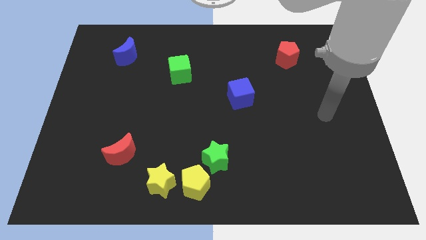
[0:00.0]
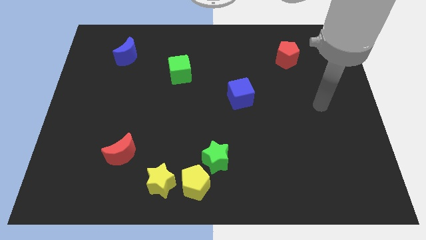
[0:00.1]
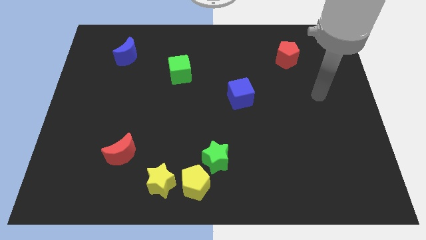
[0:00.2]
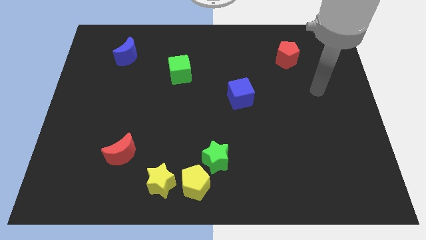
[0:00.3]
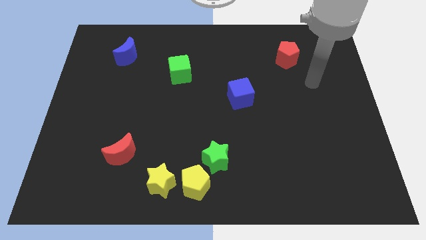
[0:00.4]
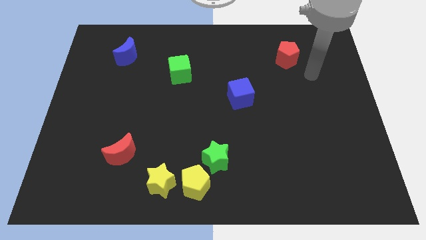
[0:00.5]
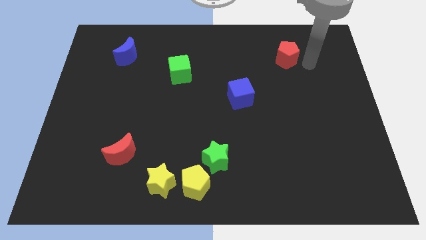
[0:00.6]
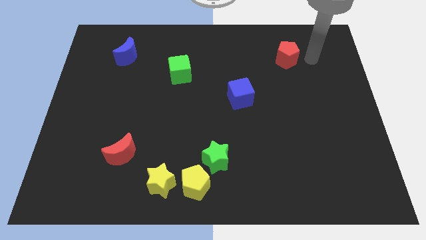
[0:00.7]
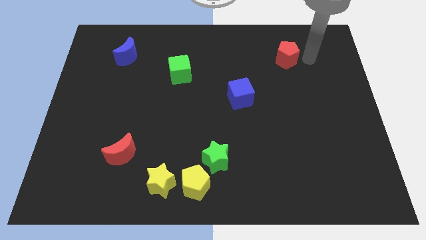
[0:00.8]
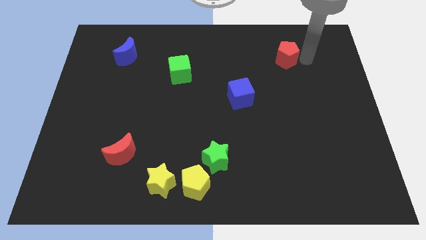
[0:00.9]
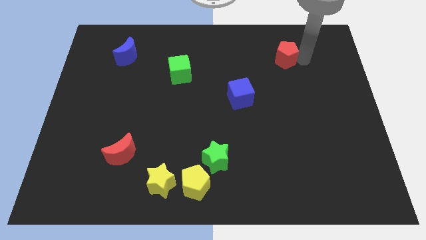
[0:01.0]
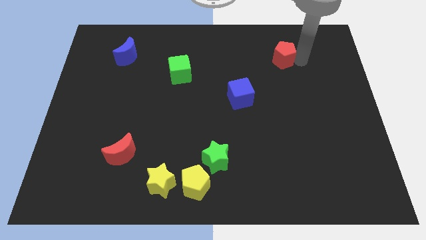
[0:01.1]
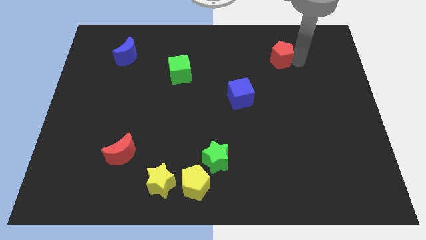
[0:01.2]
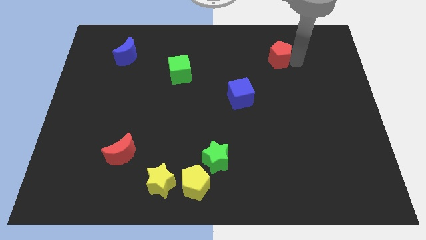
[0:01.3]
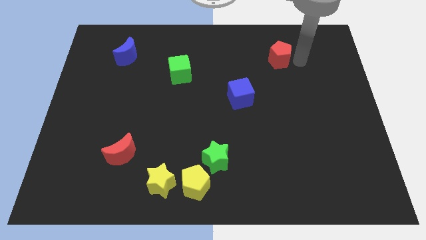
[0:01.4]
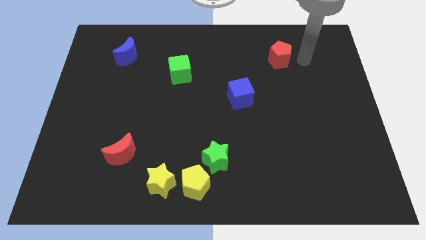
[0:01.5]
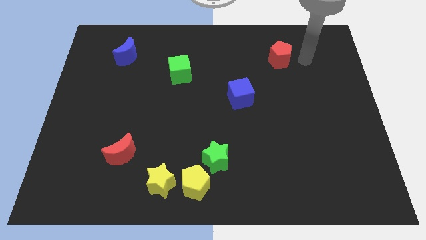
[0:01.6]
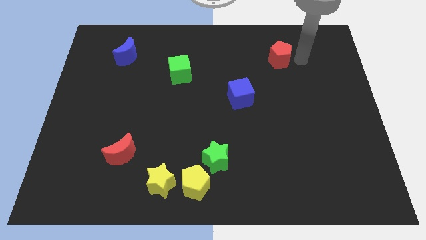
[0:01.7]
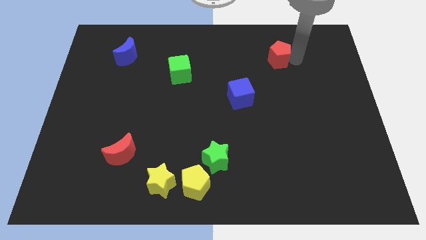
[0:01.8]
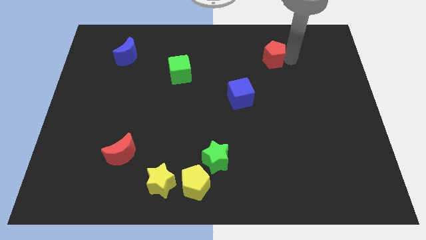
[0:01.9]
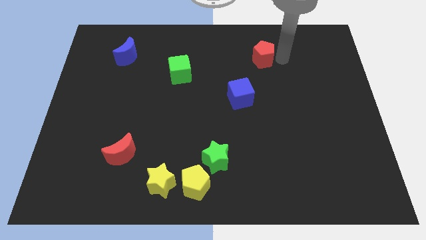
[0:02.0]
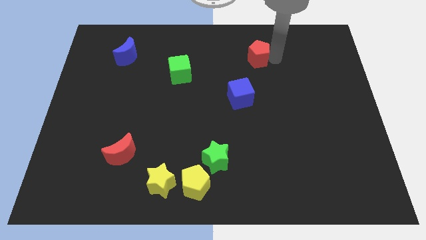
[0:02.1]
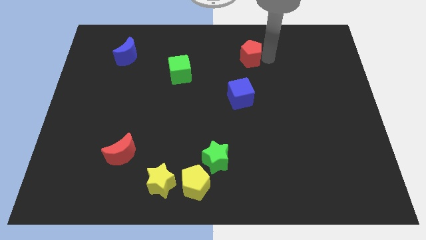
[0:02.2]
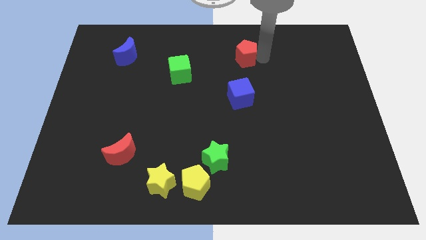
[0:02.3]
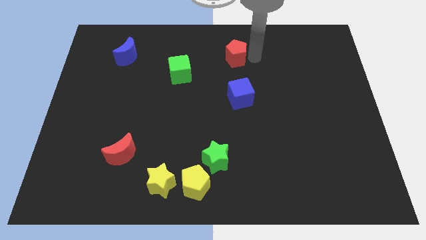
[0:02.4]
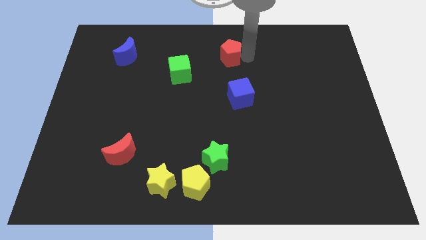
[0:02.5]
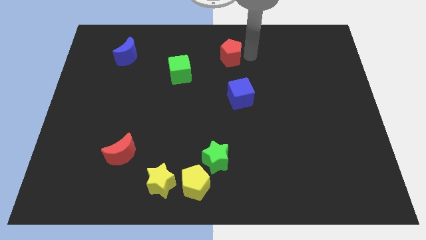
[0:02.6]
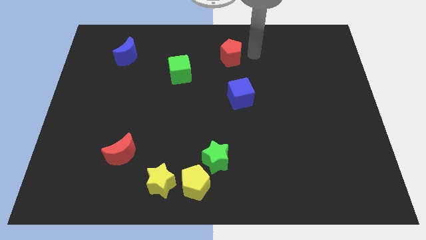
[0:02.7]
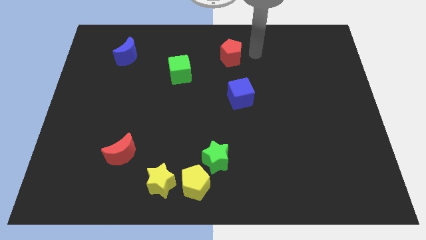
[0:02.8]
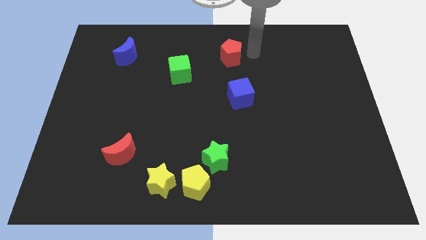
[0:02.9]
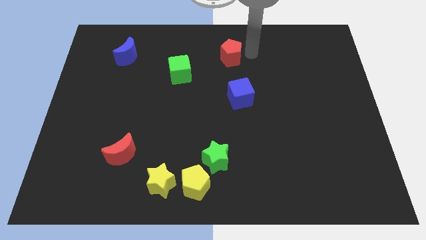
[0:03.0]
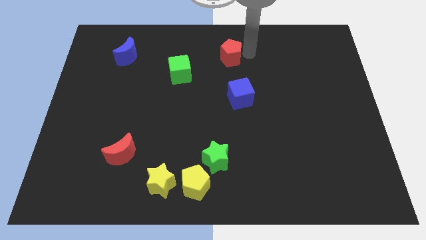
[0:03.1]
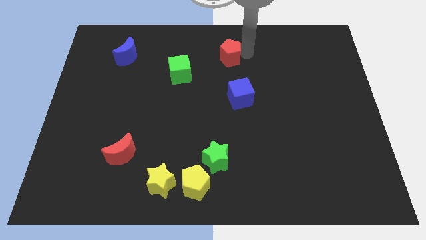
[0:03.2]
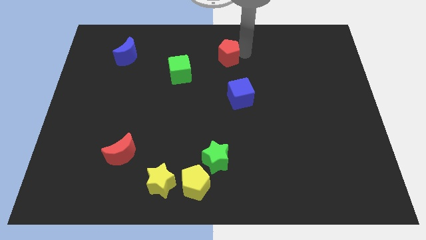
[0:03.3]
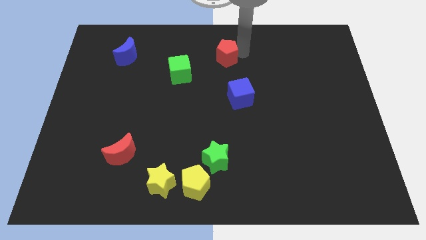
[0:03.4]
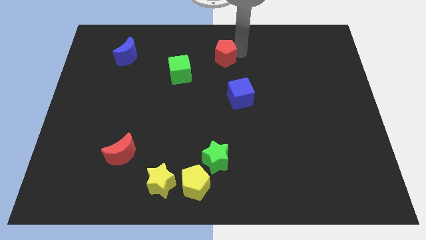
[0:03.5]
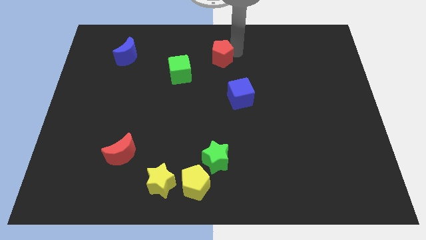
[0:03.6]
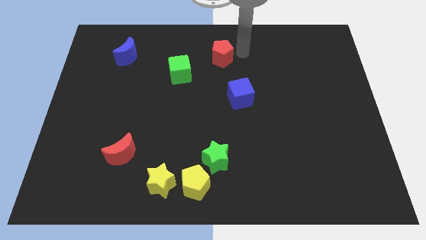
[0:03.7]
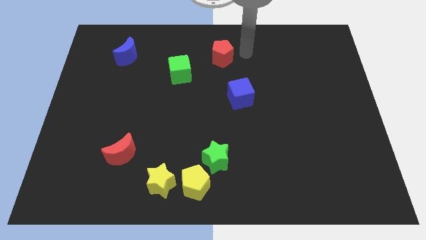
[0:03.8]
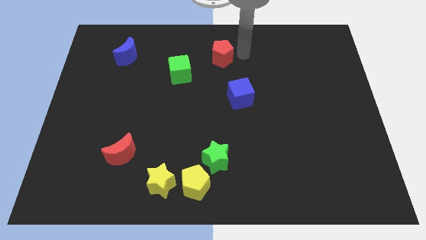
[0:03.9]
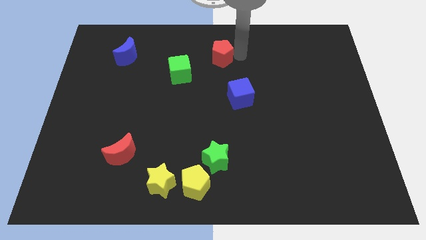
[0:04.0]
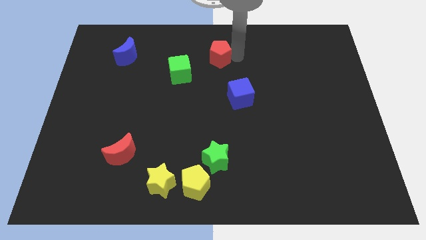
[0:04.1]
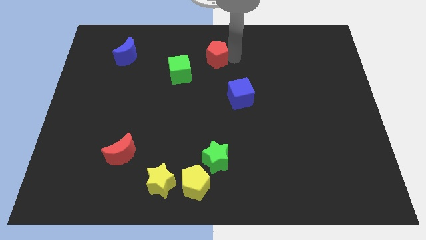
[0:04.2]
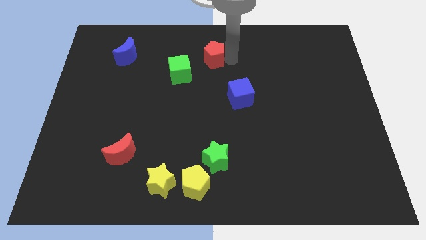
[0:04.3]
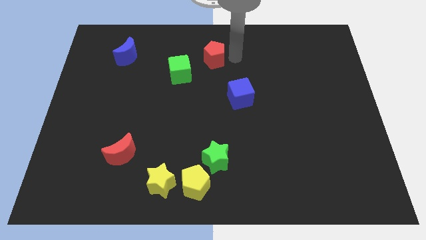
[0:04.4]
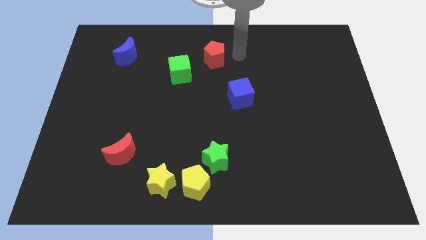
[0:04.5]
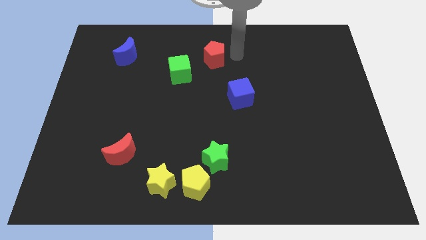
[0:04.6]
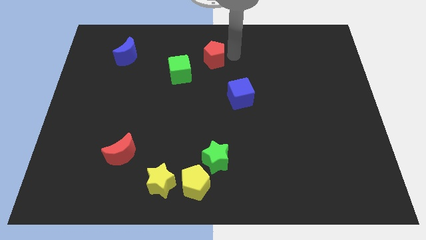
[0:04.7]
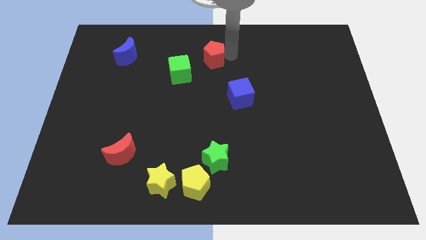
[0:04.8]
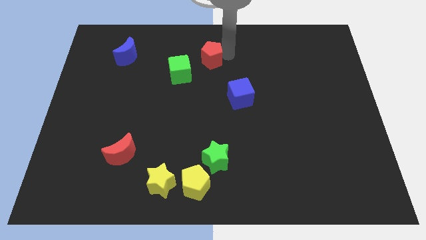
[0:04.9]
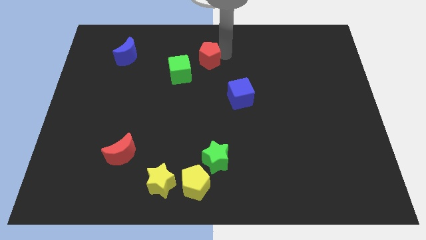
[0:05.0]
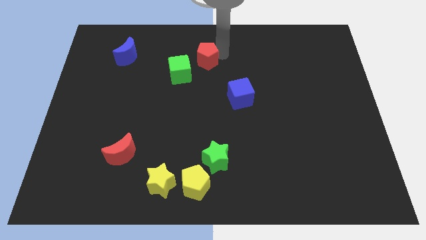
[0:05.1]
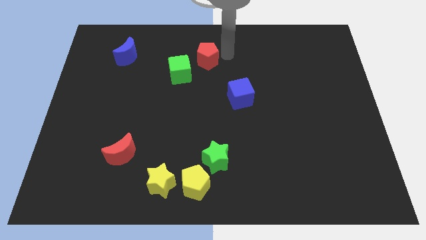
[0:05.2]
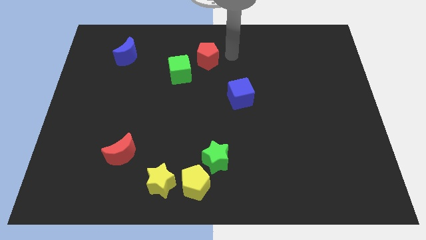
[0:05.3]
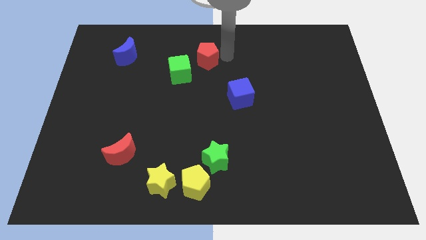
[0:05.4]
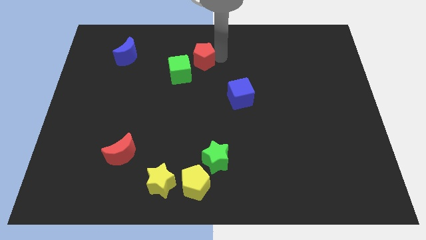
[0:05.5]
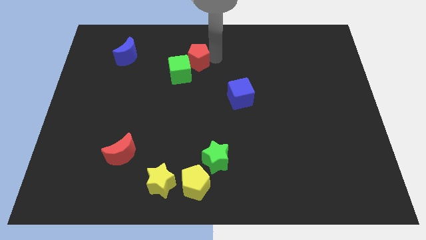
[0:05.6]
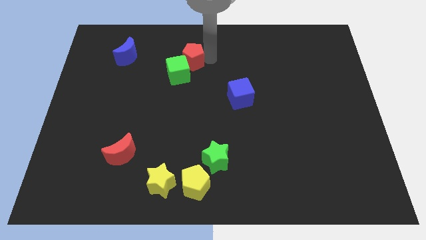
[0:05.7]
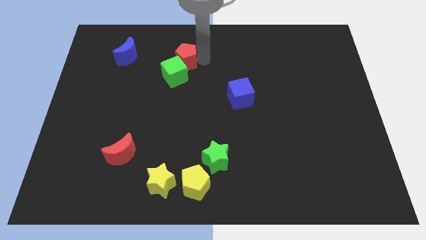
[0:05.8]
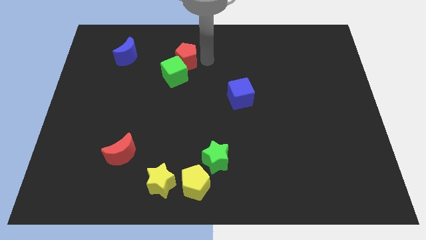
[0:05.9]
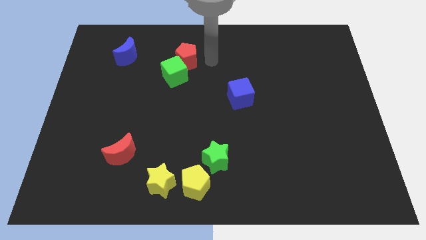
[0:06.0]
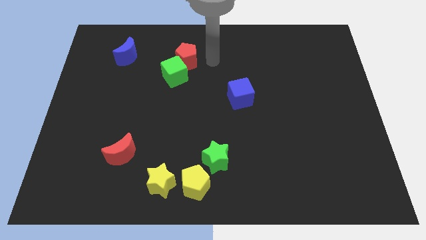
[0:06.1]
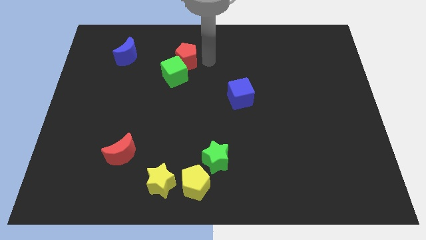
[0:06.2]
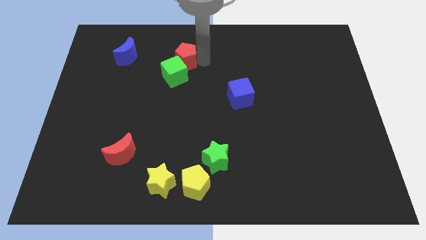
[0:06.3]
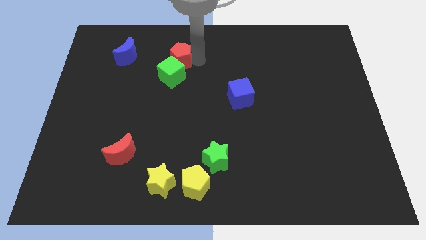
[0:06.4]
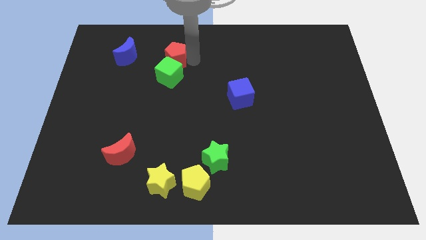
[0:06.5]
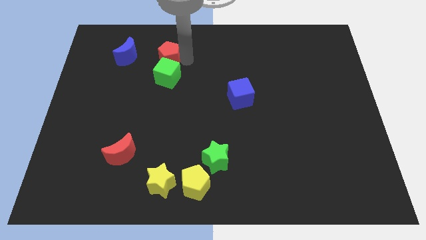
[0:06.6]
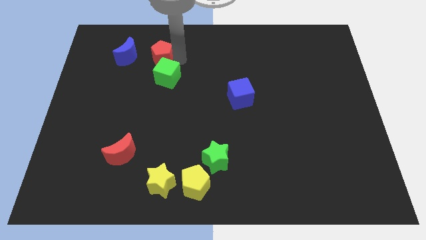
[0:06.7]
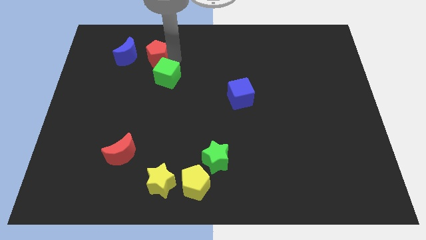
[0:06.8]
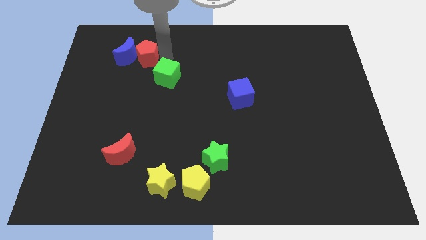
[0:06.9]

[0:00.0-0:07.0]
push the red pentagon towards the blue moon
